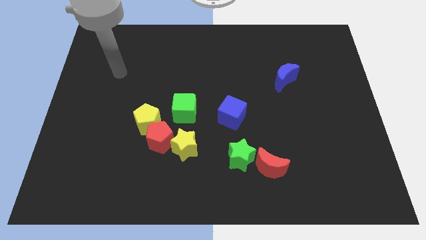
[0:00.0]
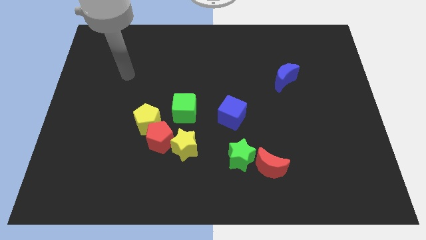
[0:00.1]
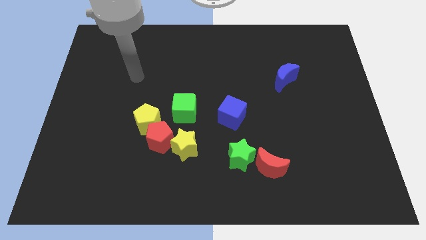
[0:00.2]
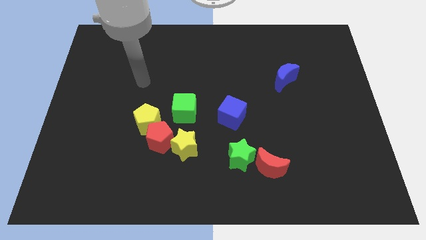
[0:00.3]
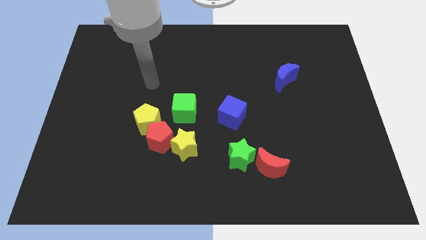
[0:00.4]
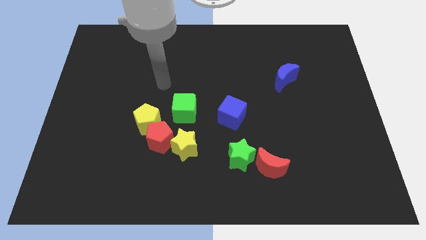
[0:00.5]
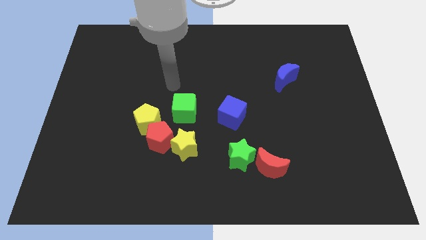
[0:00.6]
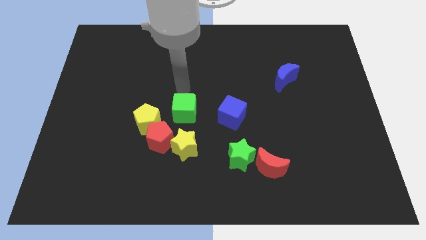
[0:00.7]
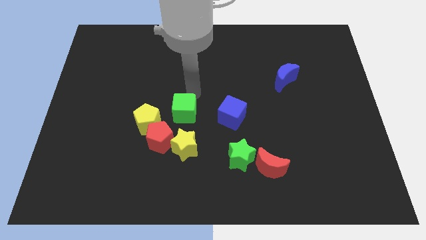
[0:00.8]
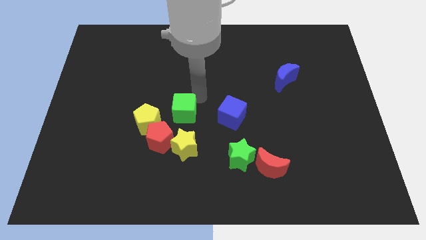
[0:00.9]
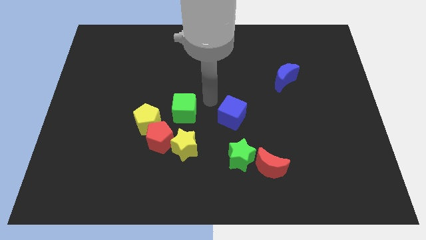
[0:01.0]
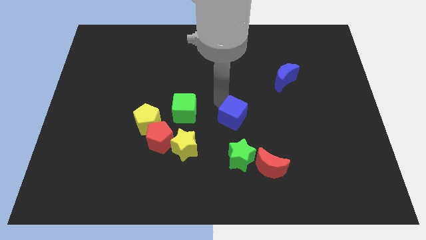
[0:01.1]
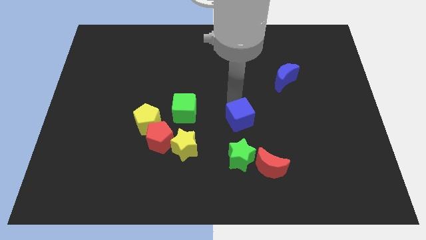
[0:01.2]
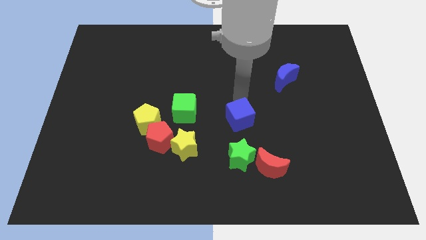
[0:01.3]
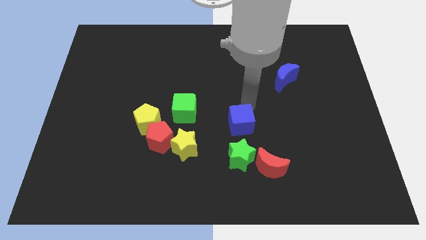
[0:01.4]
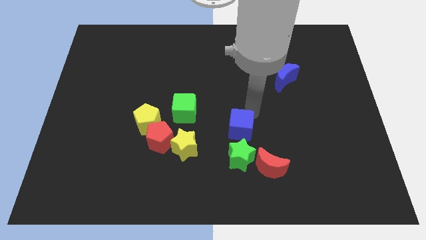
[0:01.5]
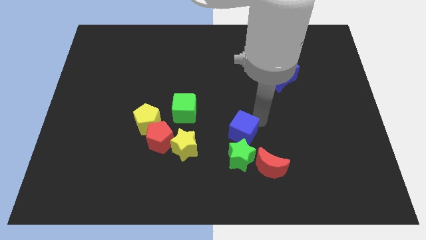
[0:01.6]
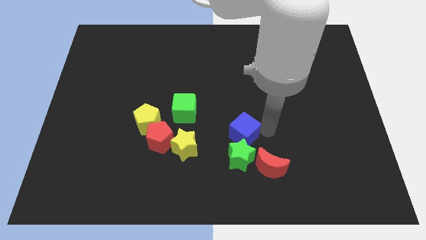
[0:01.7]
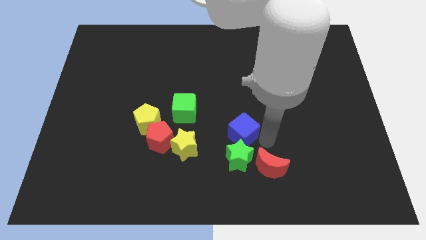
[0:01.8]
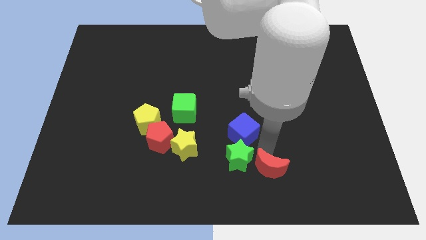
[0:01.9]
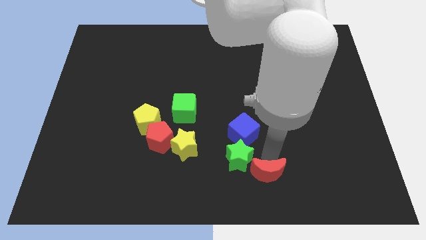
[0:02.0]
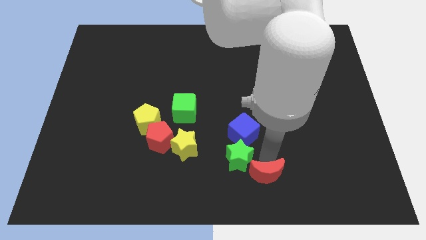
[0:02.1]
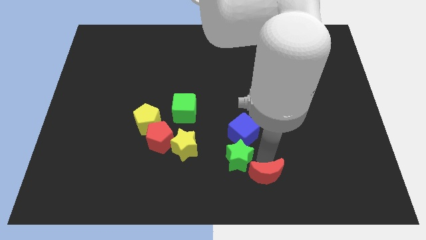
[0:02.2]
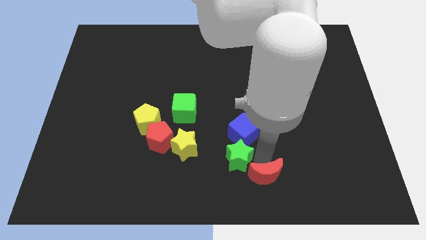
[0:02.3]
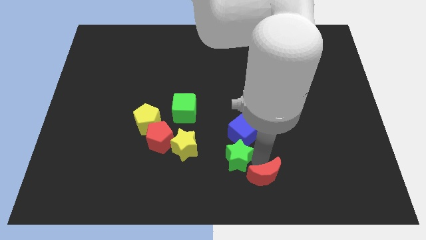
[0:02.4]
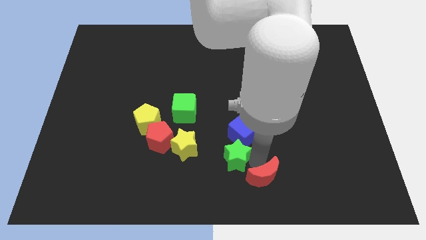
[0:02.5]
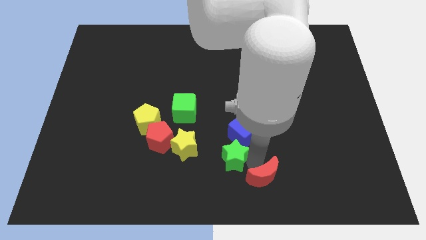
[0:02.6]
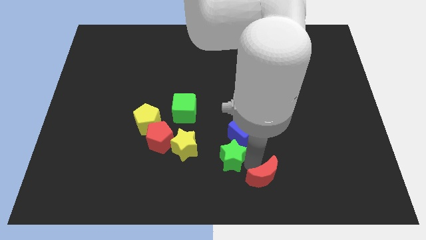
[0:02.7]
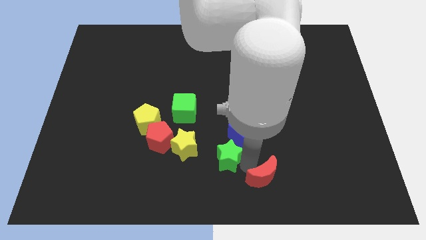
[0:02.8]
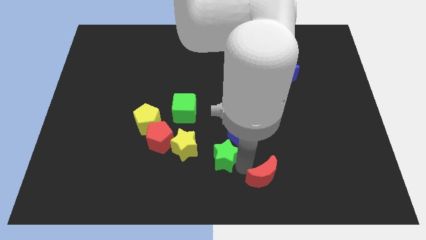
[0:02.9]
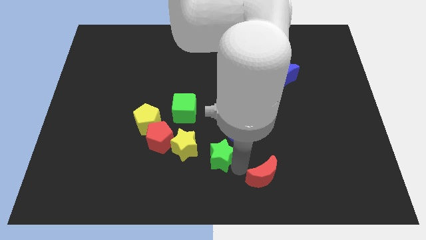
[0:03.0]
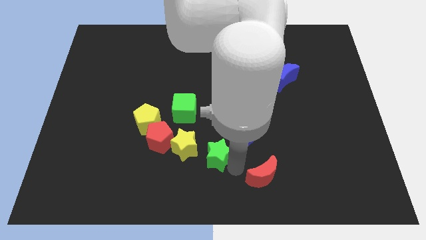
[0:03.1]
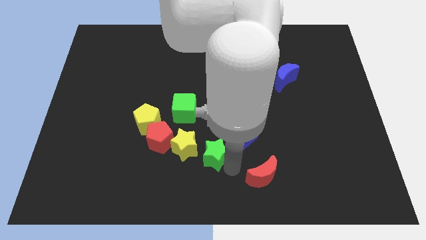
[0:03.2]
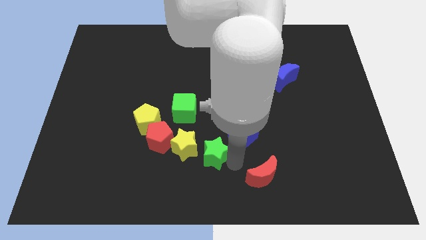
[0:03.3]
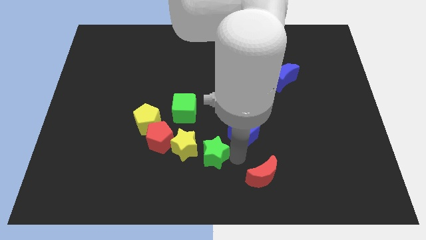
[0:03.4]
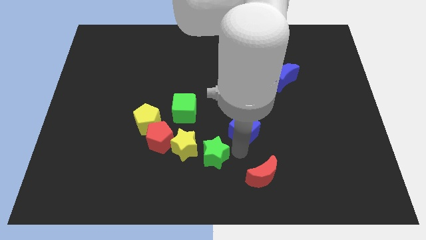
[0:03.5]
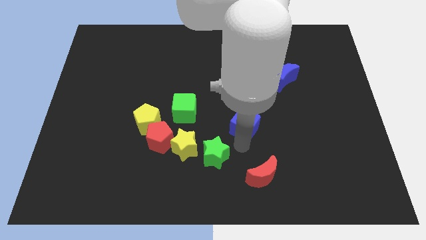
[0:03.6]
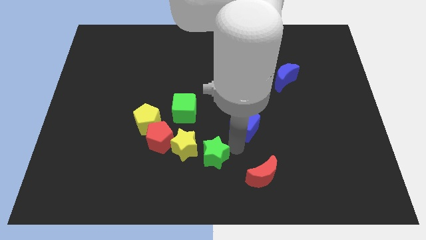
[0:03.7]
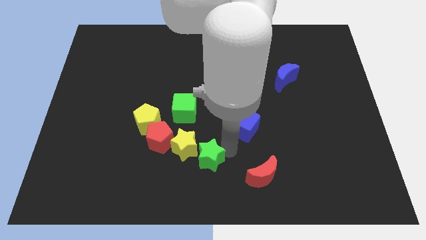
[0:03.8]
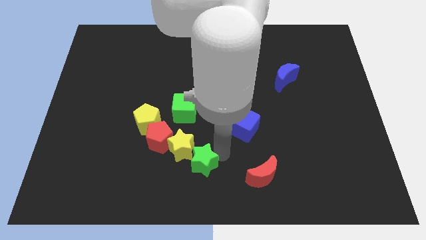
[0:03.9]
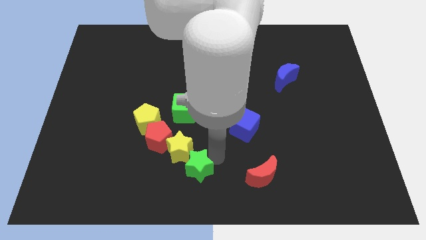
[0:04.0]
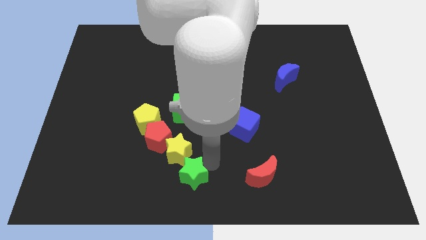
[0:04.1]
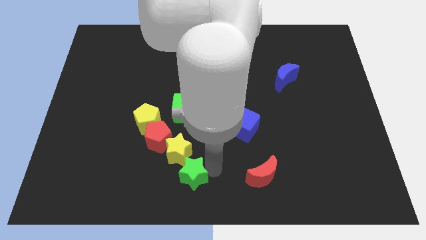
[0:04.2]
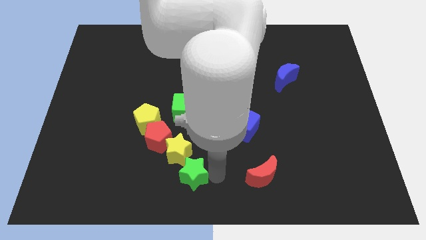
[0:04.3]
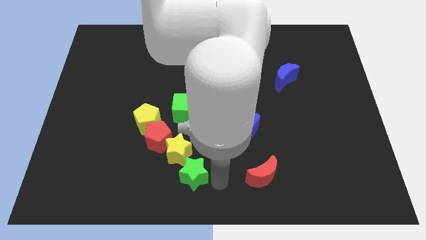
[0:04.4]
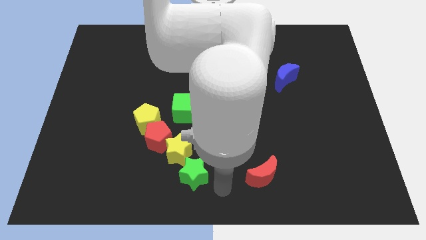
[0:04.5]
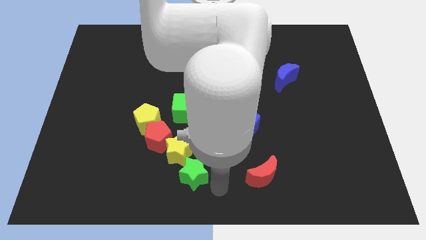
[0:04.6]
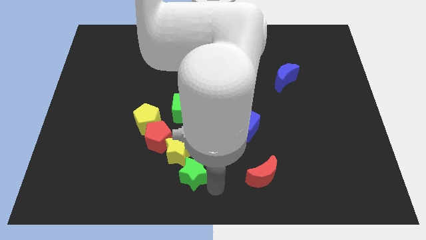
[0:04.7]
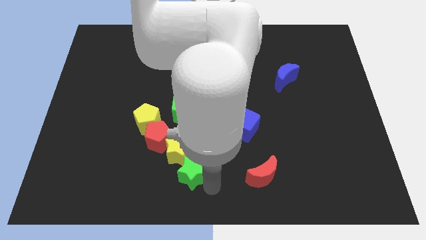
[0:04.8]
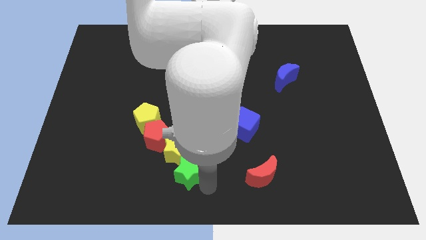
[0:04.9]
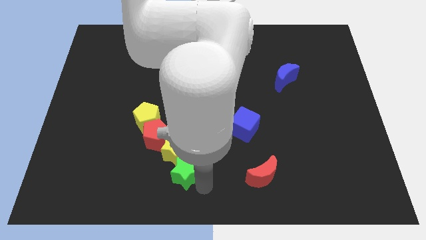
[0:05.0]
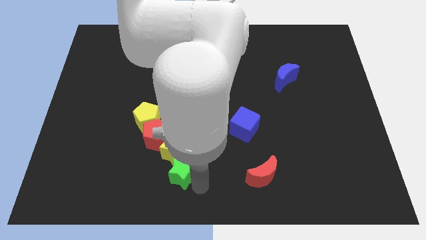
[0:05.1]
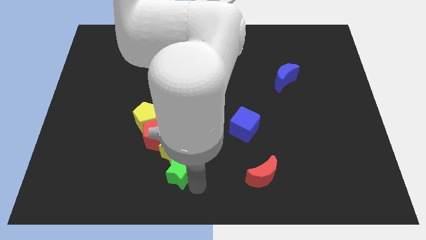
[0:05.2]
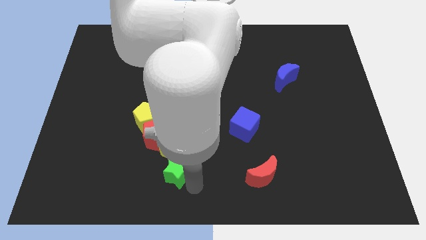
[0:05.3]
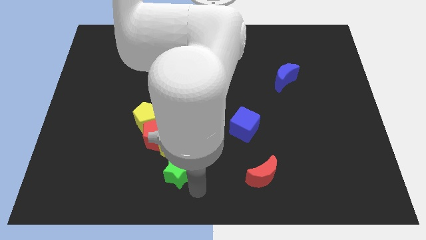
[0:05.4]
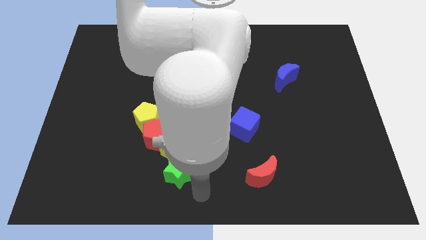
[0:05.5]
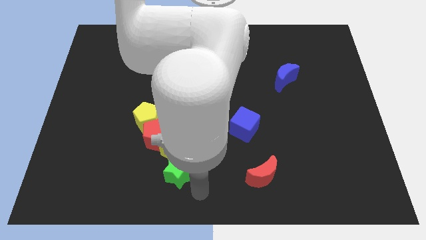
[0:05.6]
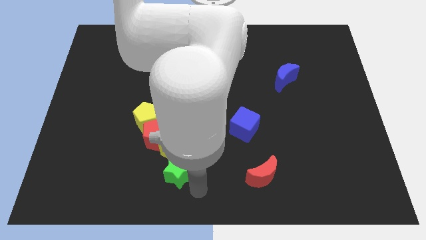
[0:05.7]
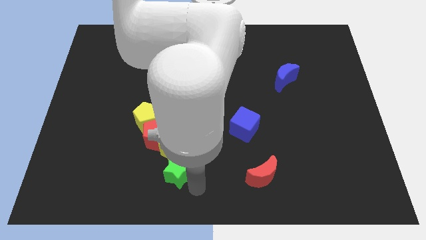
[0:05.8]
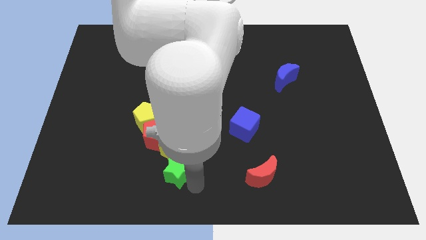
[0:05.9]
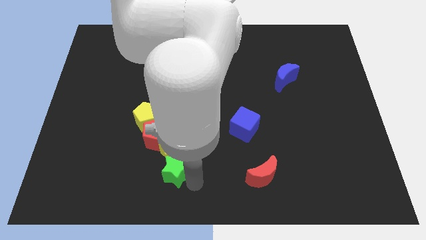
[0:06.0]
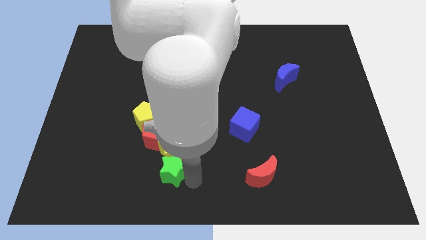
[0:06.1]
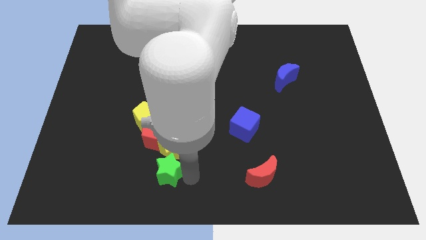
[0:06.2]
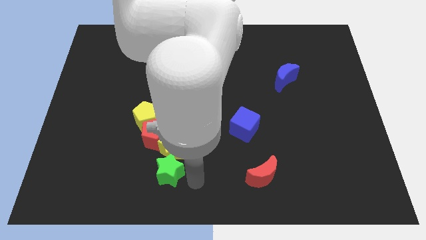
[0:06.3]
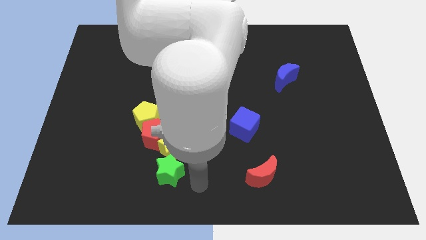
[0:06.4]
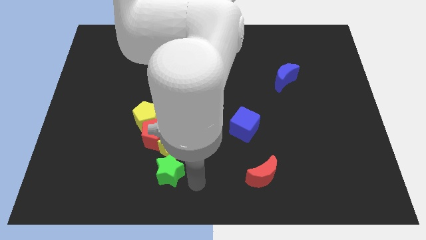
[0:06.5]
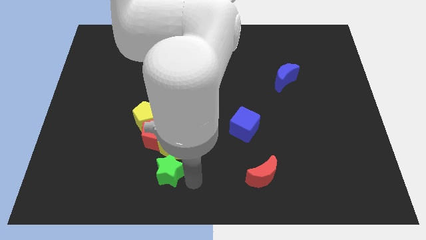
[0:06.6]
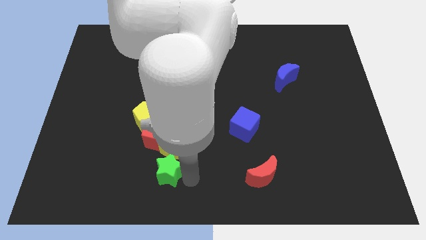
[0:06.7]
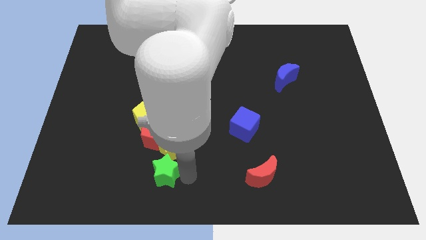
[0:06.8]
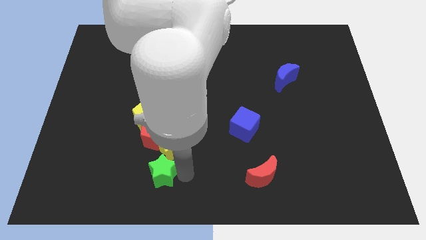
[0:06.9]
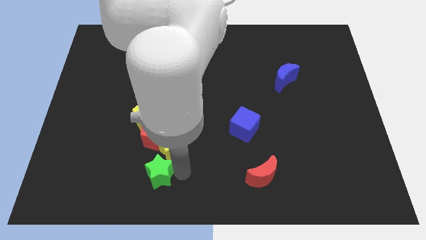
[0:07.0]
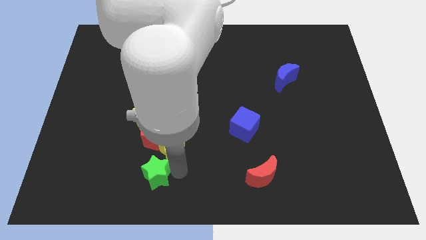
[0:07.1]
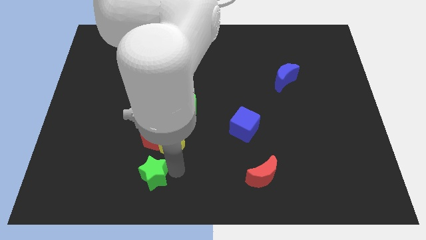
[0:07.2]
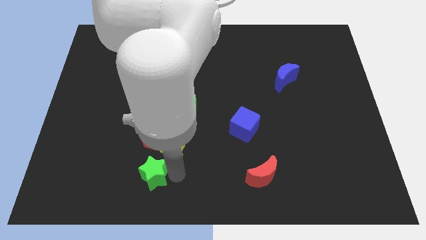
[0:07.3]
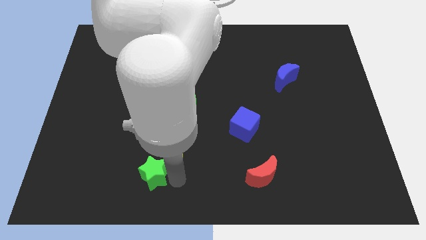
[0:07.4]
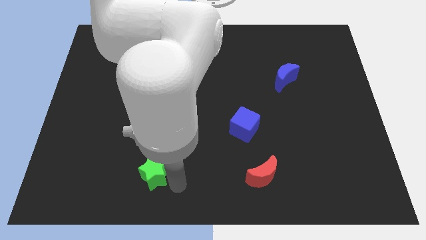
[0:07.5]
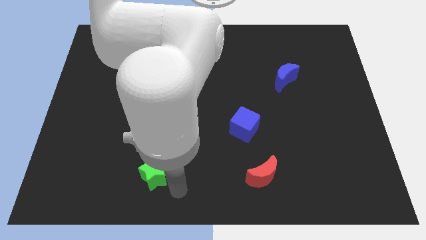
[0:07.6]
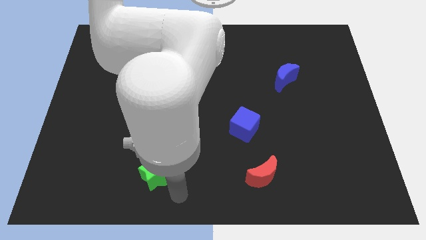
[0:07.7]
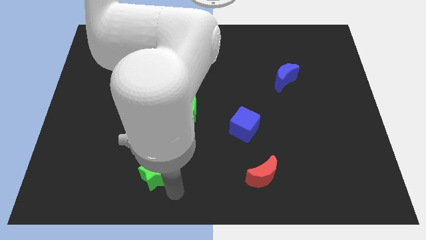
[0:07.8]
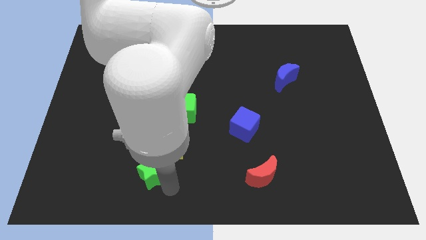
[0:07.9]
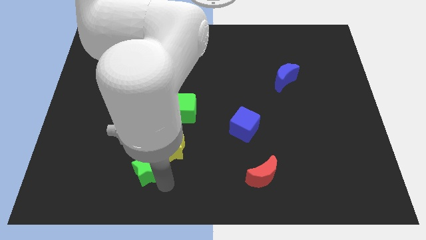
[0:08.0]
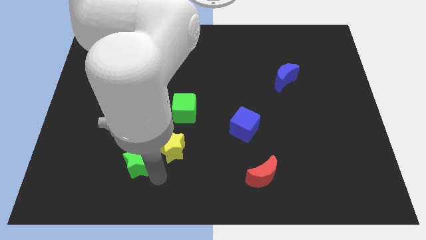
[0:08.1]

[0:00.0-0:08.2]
push the green star left
